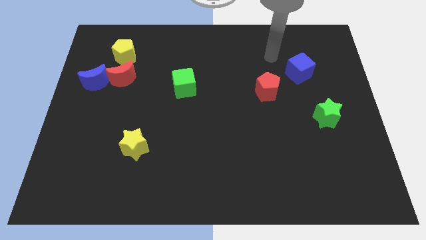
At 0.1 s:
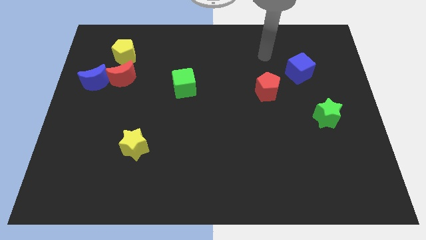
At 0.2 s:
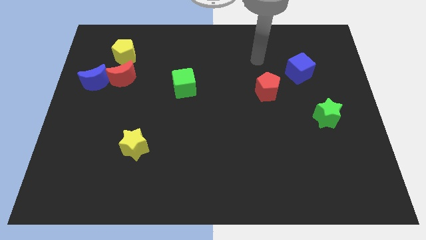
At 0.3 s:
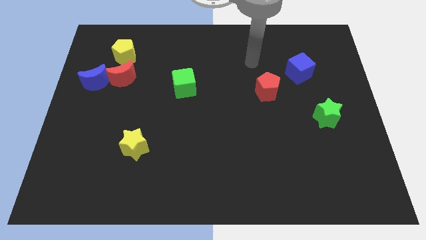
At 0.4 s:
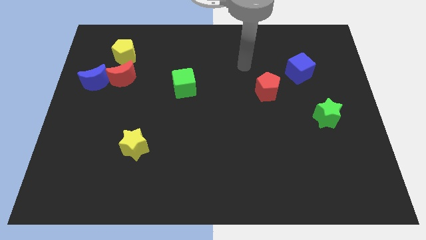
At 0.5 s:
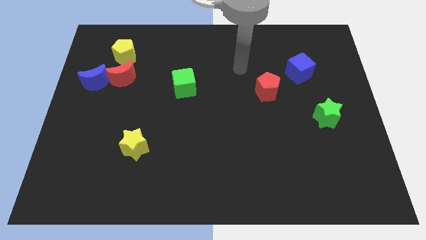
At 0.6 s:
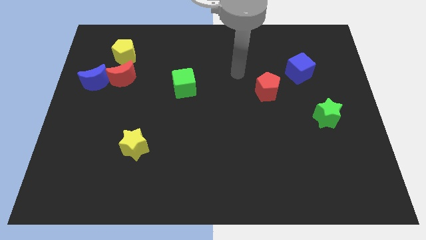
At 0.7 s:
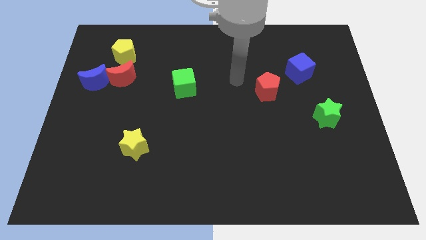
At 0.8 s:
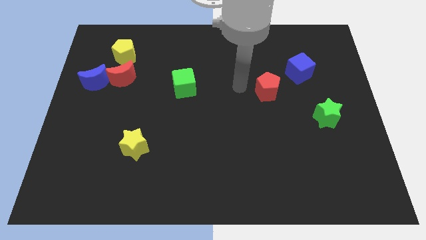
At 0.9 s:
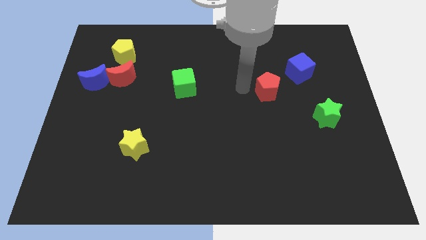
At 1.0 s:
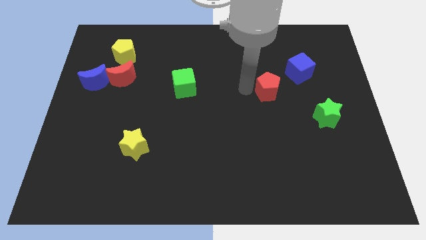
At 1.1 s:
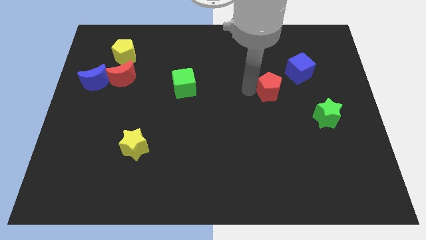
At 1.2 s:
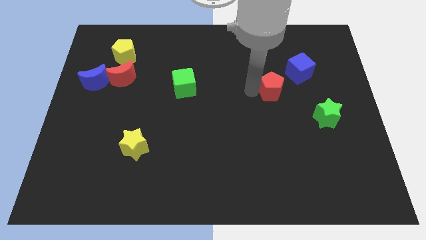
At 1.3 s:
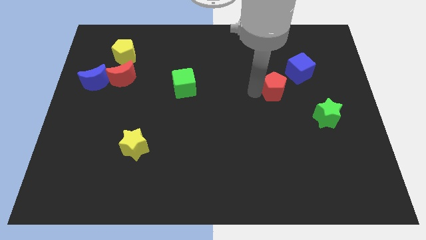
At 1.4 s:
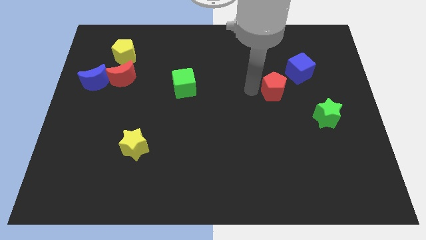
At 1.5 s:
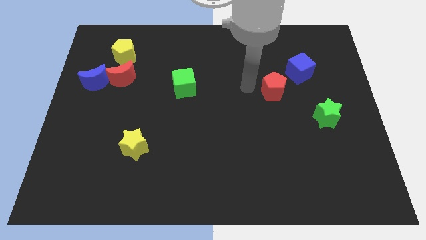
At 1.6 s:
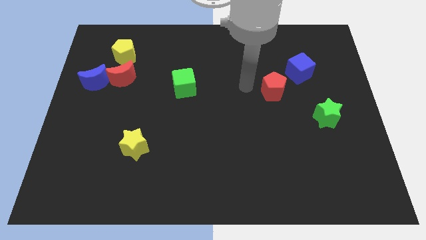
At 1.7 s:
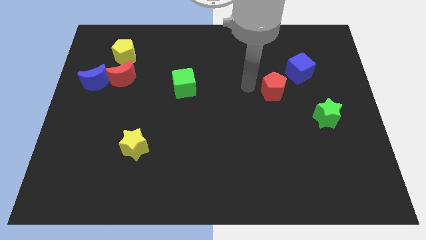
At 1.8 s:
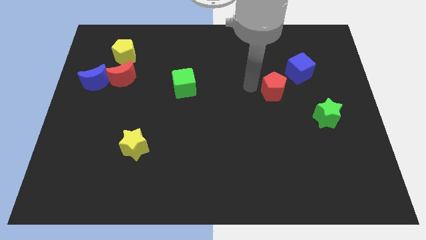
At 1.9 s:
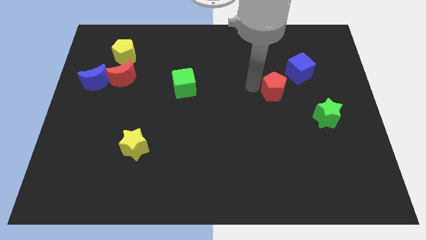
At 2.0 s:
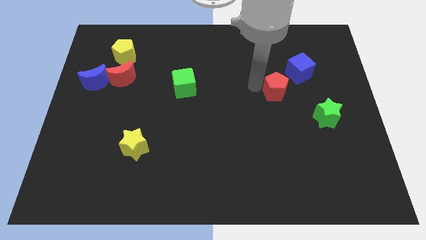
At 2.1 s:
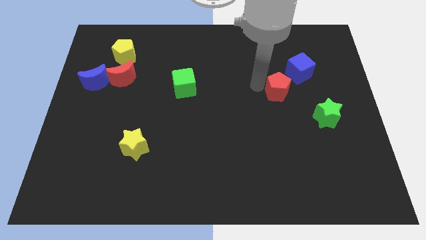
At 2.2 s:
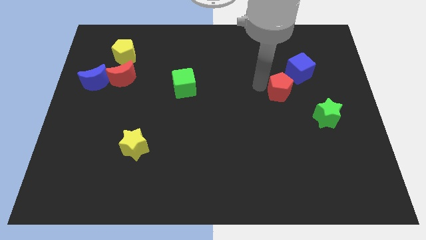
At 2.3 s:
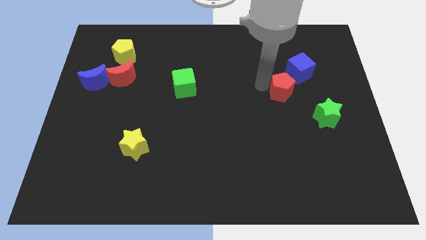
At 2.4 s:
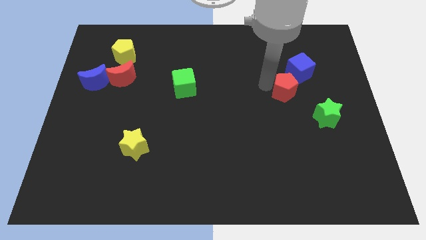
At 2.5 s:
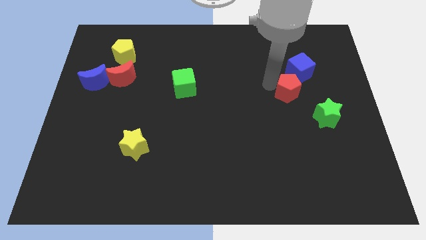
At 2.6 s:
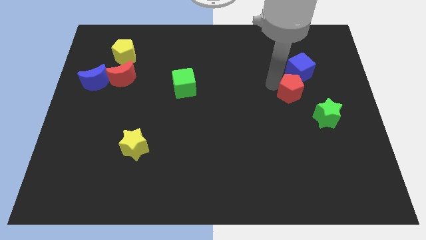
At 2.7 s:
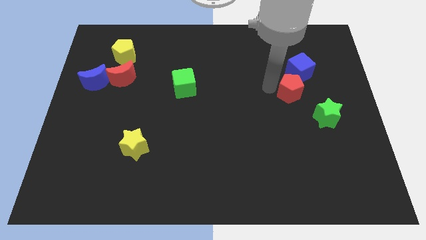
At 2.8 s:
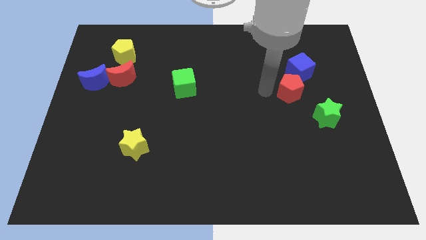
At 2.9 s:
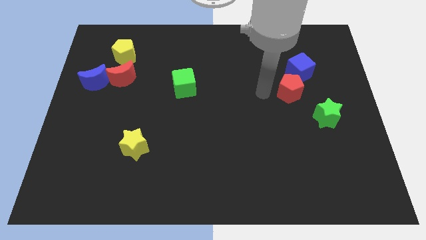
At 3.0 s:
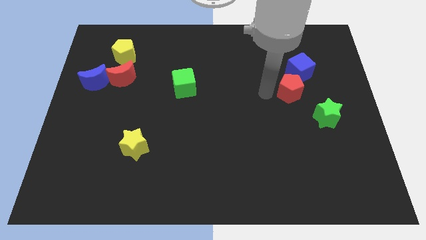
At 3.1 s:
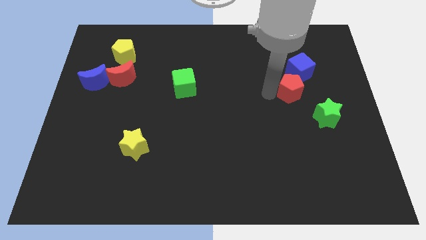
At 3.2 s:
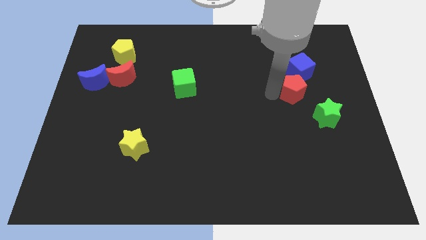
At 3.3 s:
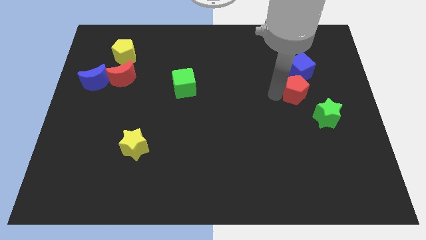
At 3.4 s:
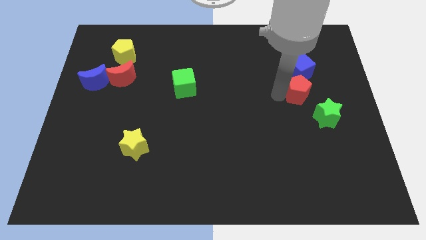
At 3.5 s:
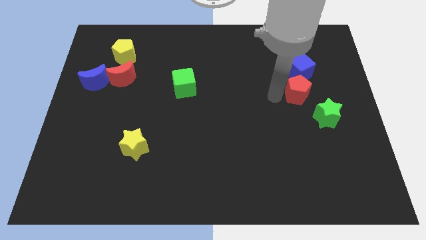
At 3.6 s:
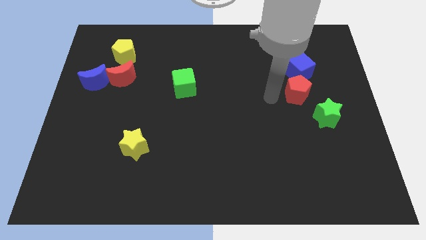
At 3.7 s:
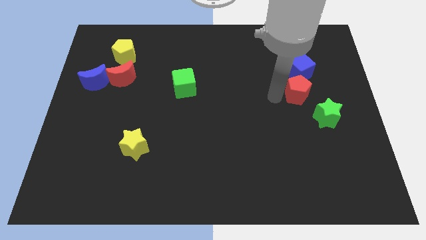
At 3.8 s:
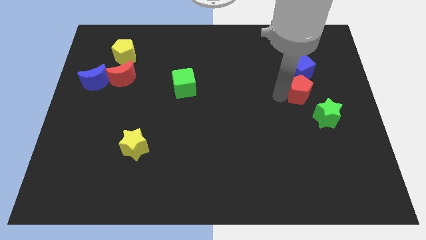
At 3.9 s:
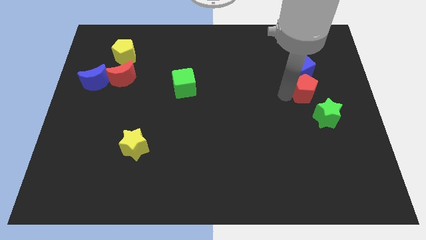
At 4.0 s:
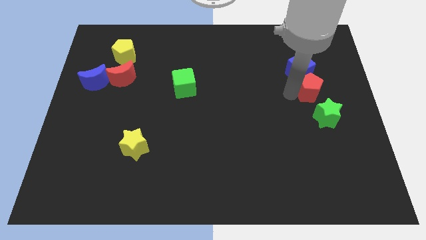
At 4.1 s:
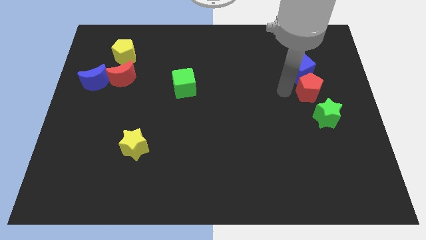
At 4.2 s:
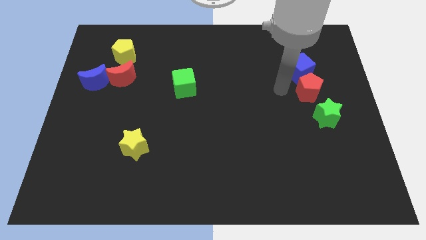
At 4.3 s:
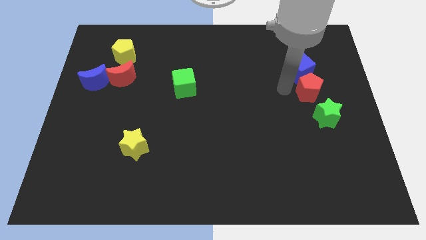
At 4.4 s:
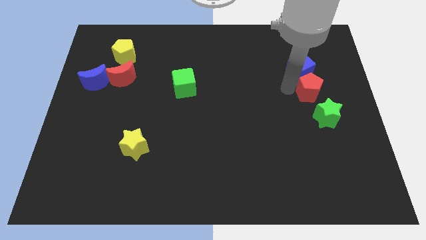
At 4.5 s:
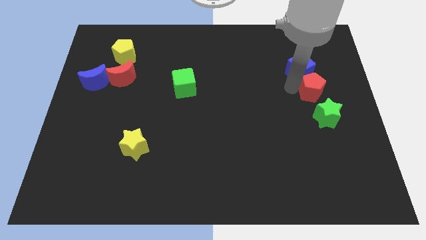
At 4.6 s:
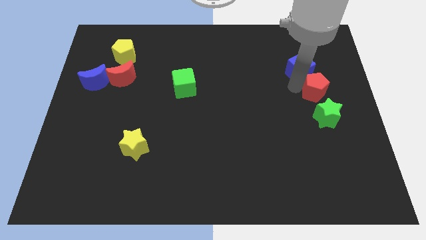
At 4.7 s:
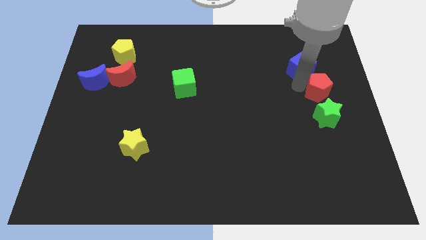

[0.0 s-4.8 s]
push the red pentagon to the right side of the board

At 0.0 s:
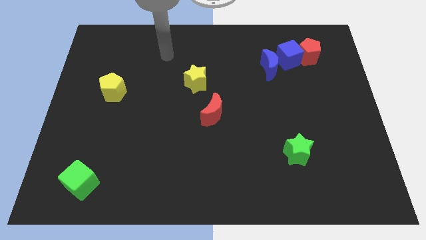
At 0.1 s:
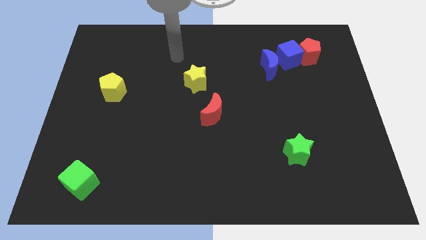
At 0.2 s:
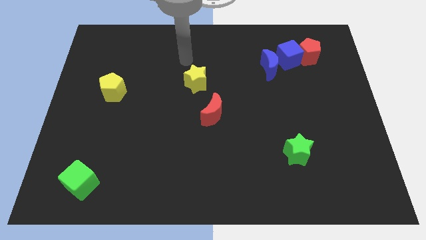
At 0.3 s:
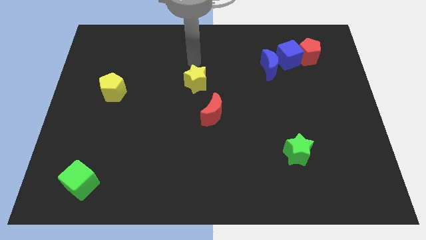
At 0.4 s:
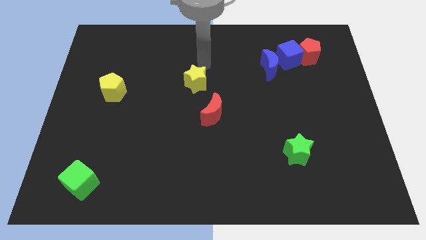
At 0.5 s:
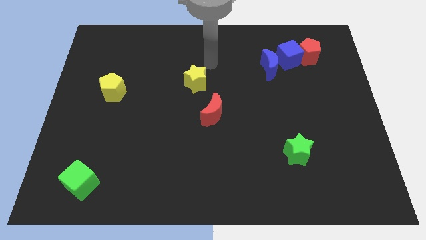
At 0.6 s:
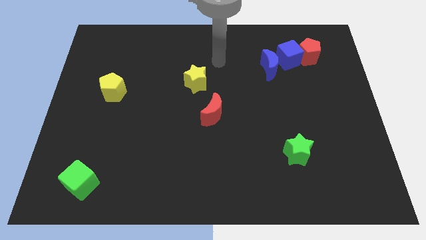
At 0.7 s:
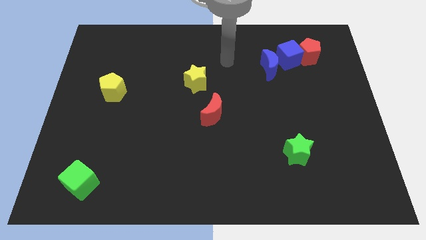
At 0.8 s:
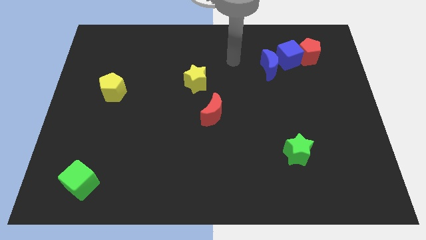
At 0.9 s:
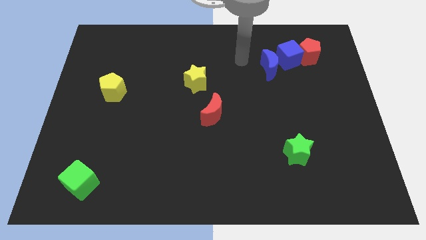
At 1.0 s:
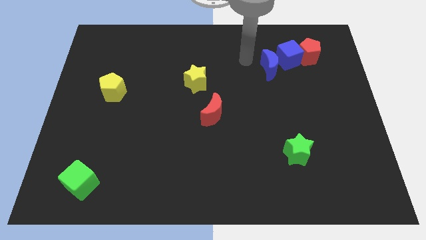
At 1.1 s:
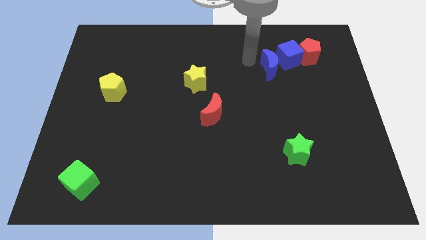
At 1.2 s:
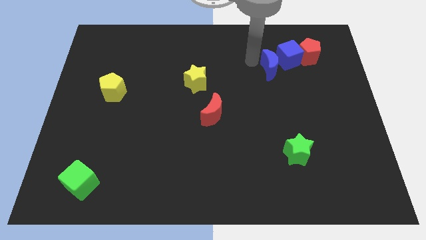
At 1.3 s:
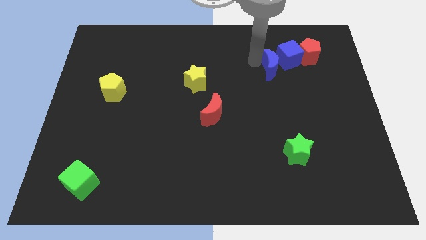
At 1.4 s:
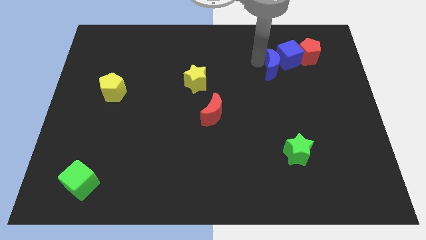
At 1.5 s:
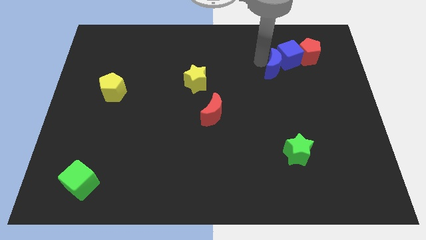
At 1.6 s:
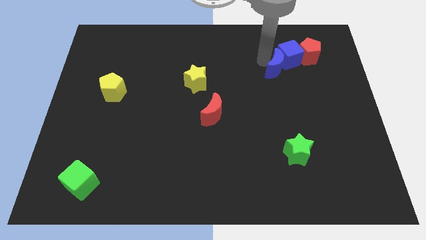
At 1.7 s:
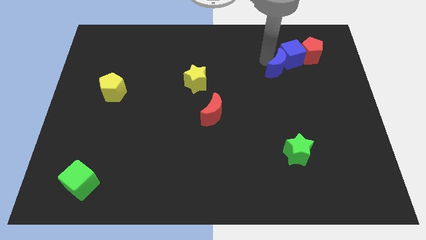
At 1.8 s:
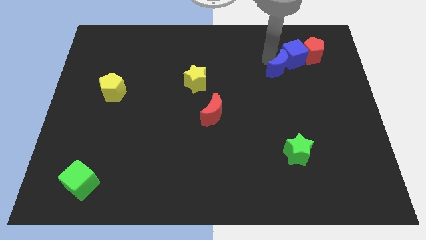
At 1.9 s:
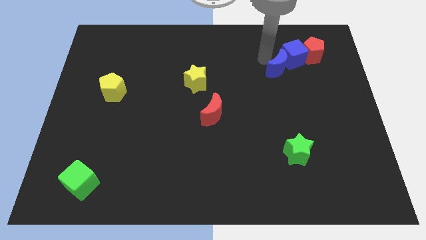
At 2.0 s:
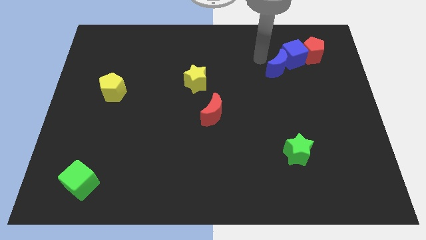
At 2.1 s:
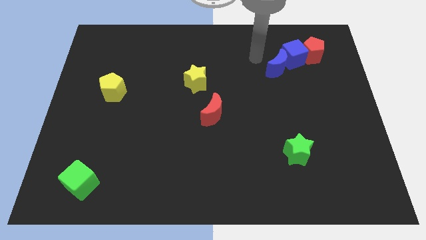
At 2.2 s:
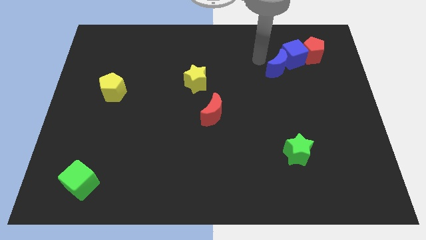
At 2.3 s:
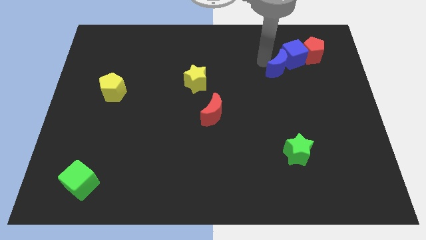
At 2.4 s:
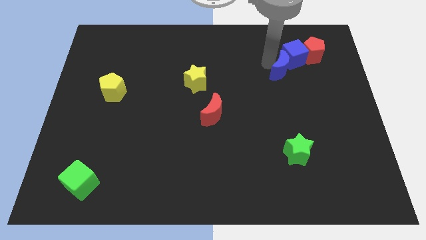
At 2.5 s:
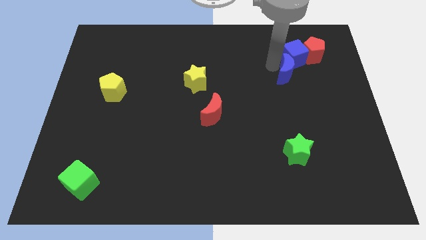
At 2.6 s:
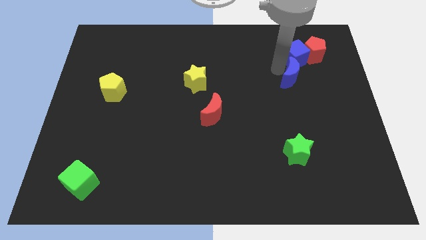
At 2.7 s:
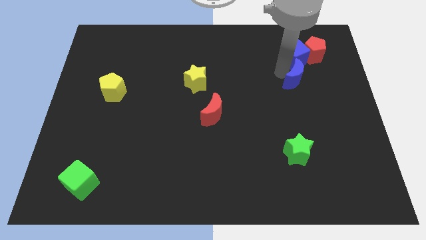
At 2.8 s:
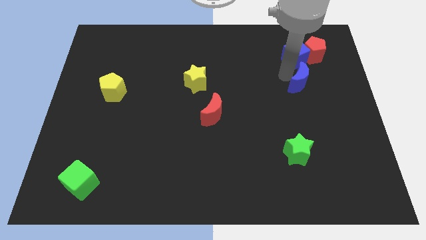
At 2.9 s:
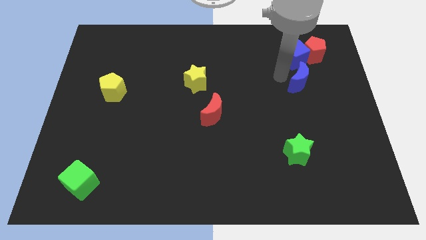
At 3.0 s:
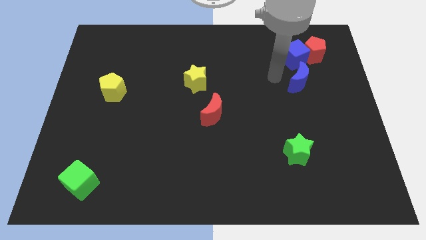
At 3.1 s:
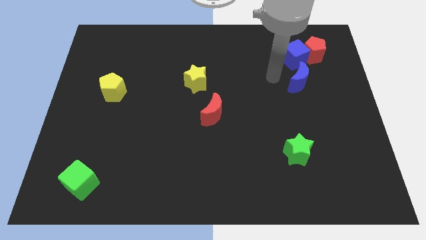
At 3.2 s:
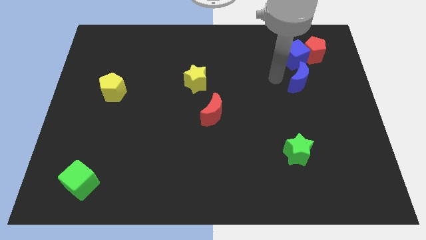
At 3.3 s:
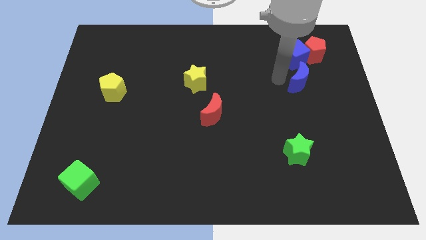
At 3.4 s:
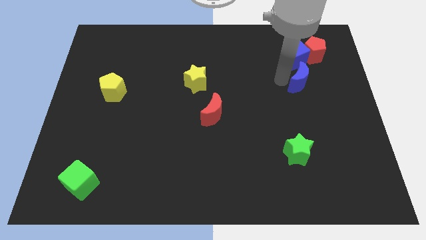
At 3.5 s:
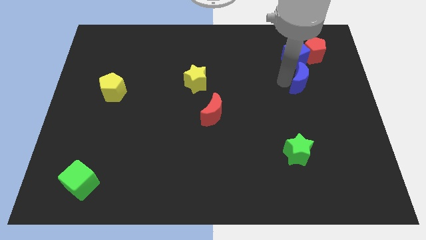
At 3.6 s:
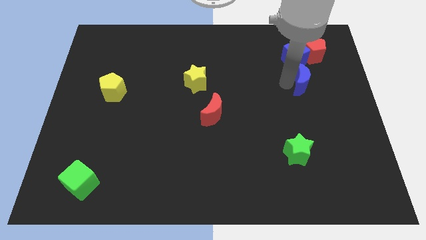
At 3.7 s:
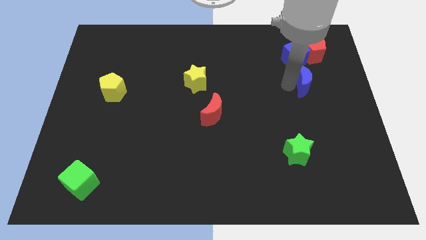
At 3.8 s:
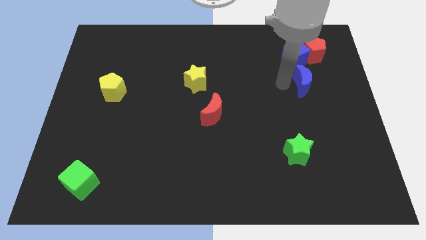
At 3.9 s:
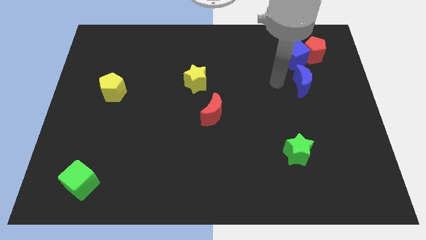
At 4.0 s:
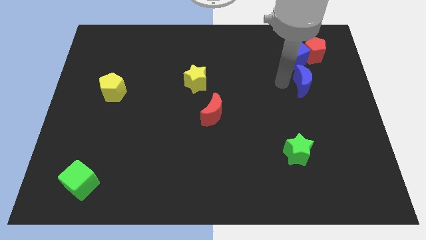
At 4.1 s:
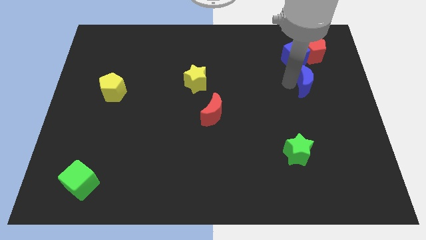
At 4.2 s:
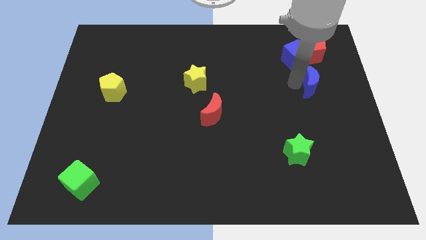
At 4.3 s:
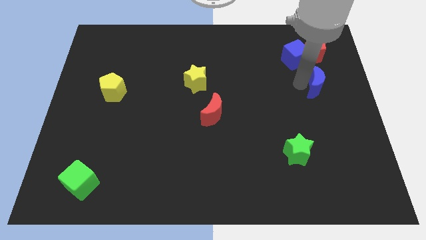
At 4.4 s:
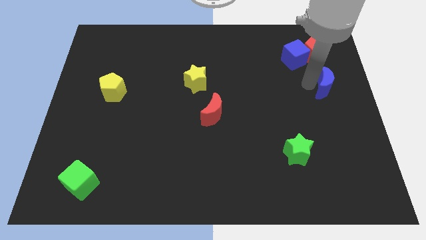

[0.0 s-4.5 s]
put the blue moon to the right side of the board
